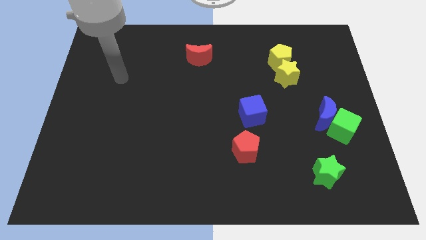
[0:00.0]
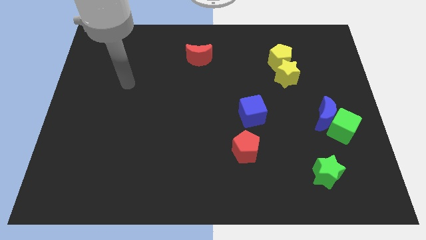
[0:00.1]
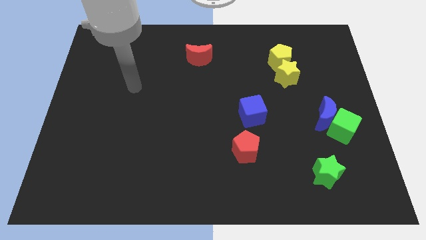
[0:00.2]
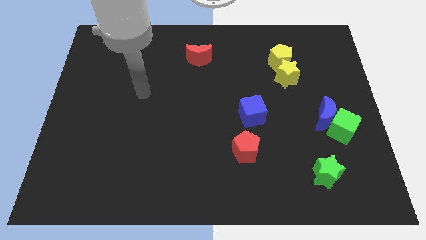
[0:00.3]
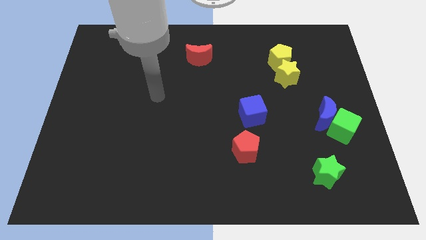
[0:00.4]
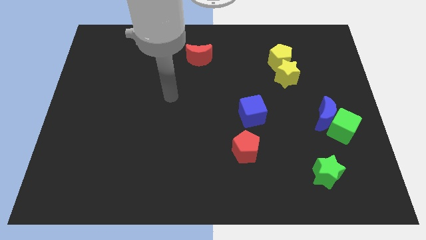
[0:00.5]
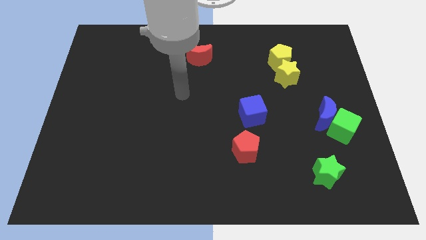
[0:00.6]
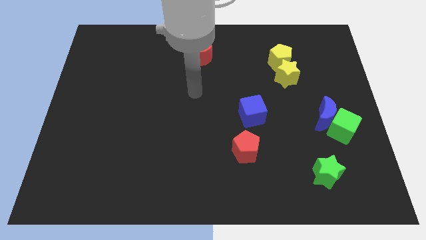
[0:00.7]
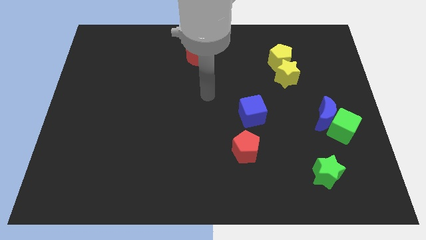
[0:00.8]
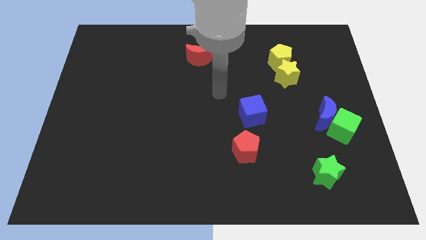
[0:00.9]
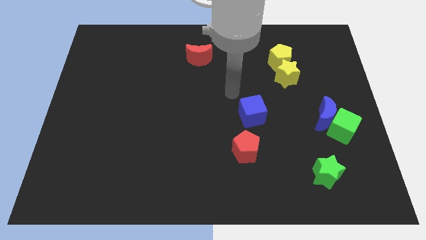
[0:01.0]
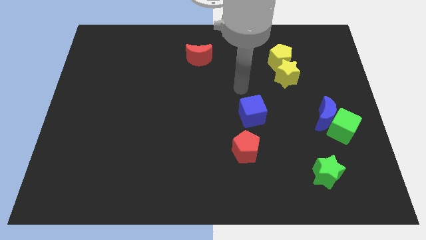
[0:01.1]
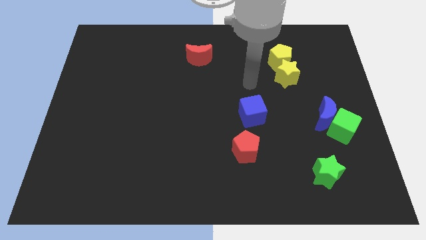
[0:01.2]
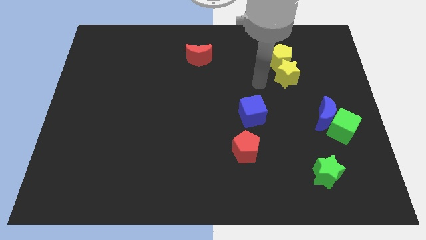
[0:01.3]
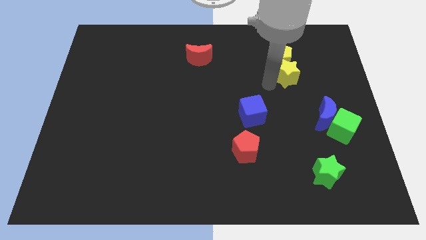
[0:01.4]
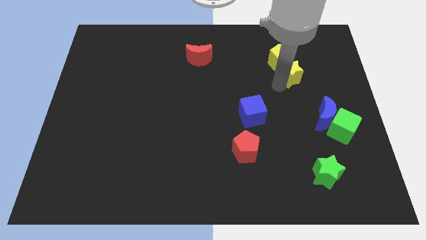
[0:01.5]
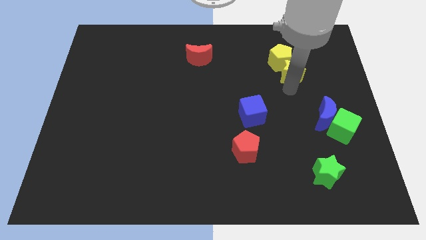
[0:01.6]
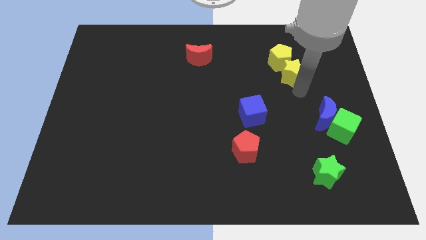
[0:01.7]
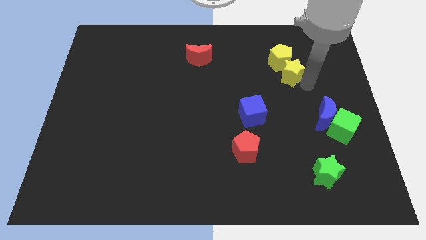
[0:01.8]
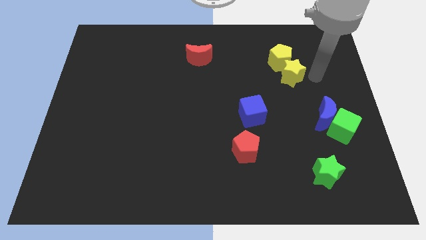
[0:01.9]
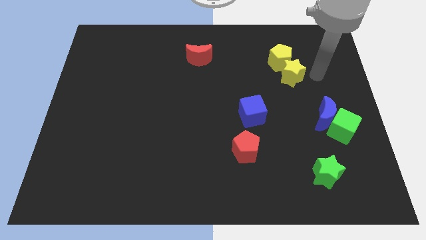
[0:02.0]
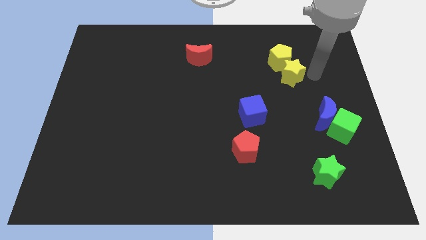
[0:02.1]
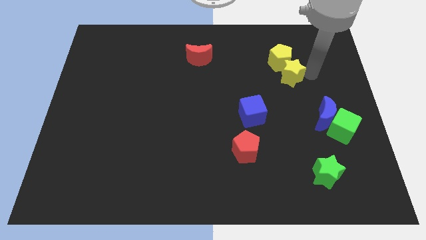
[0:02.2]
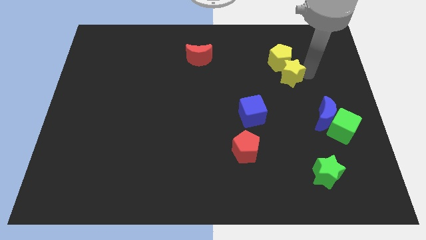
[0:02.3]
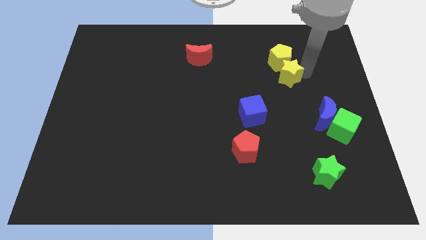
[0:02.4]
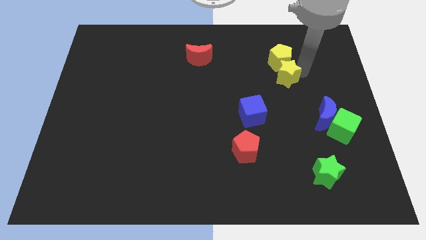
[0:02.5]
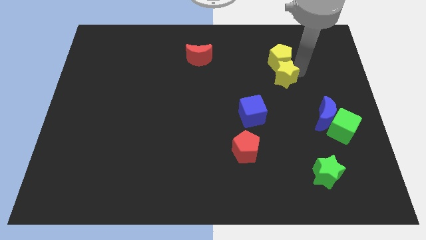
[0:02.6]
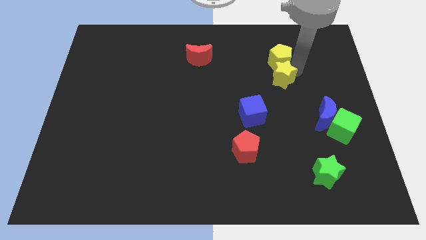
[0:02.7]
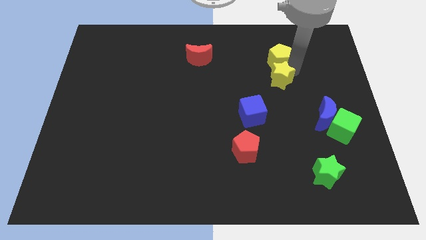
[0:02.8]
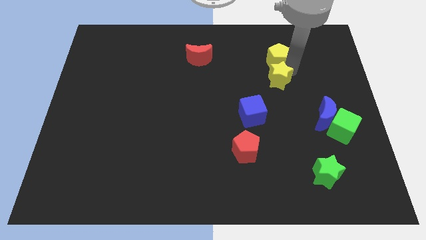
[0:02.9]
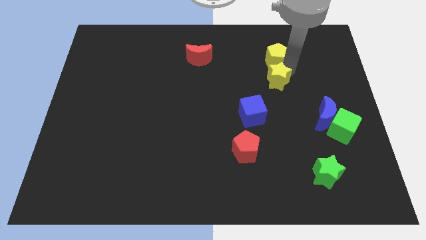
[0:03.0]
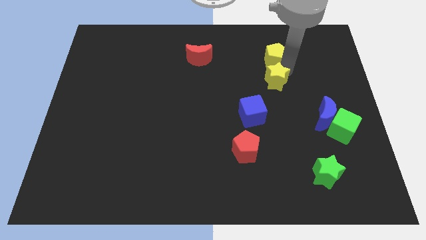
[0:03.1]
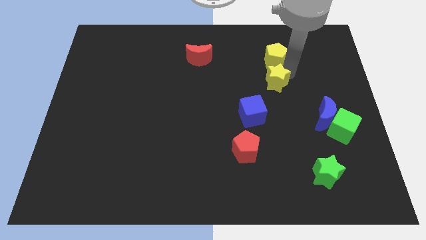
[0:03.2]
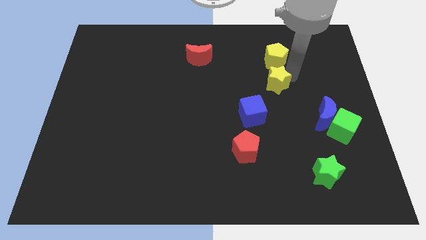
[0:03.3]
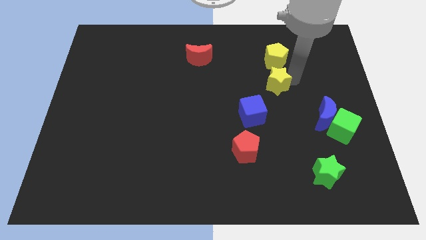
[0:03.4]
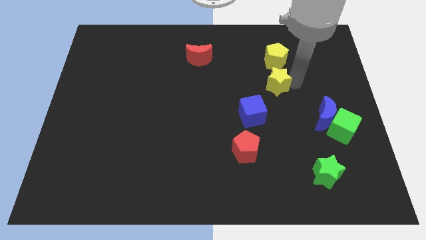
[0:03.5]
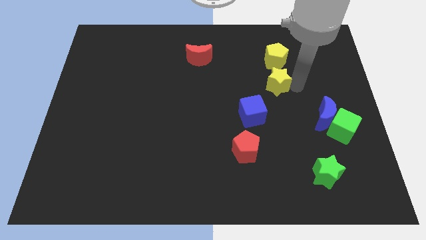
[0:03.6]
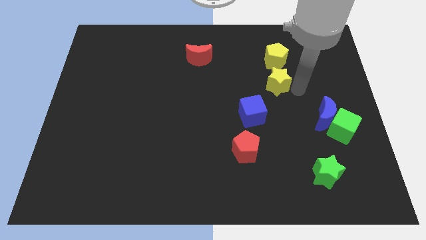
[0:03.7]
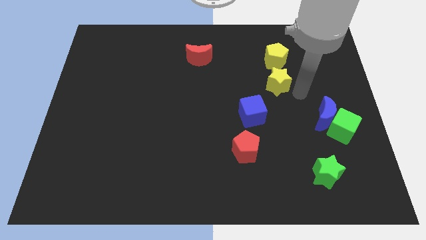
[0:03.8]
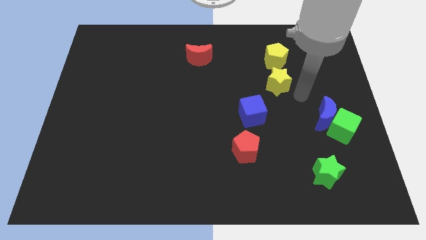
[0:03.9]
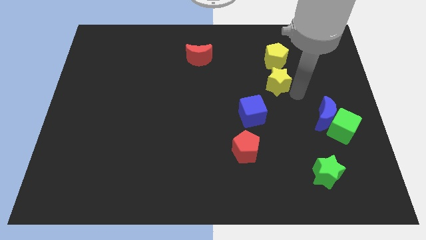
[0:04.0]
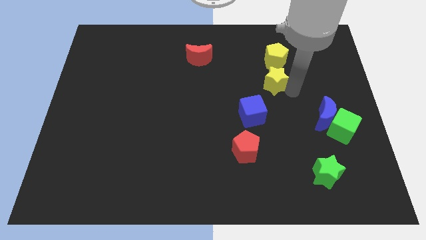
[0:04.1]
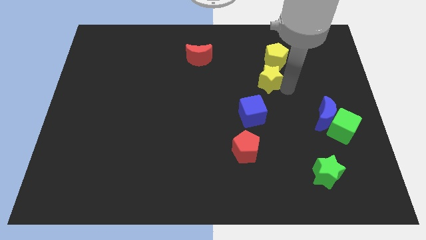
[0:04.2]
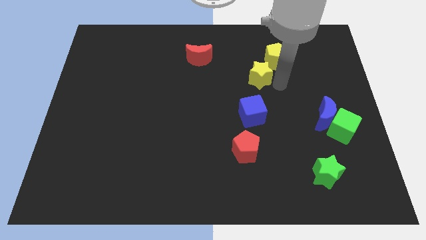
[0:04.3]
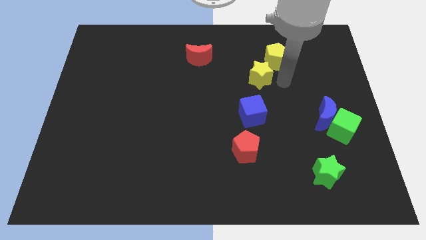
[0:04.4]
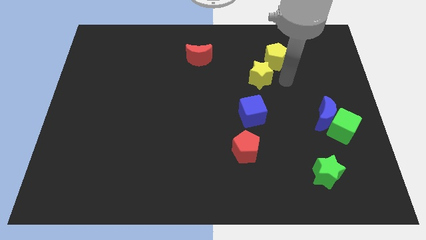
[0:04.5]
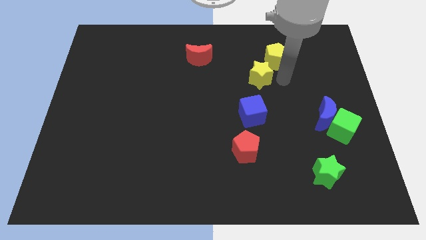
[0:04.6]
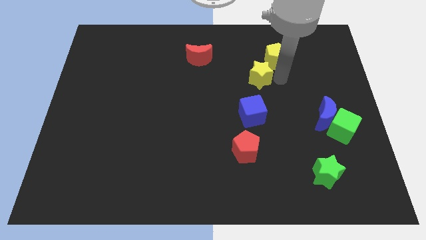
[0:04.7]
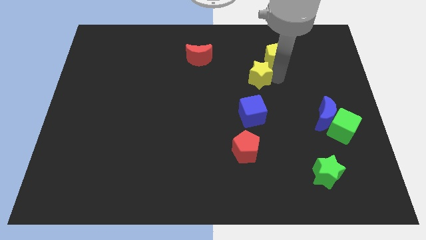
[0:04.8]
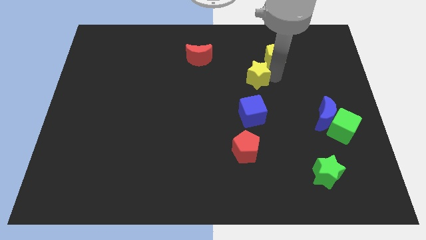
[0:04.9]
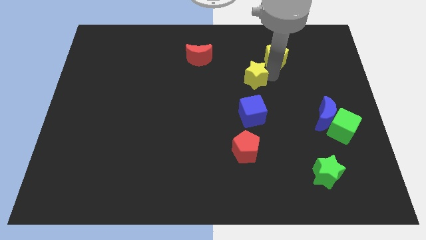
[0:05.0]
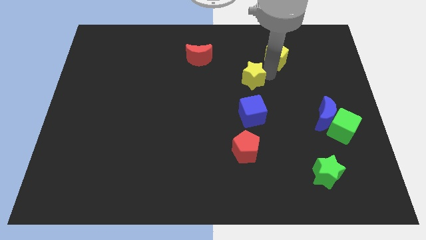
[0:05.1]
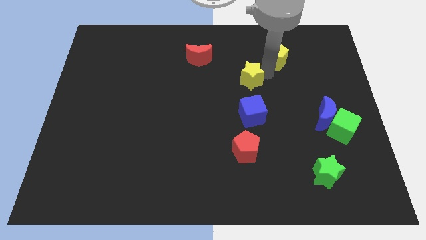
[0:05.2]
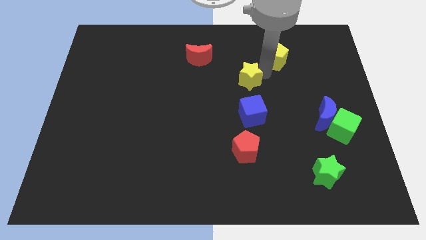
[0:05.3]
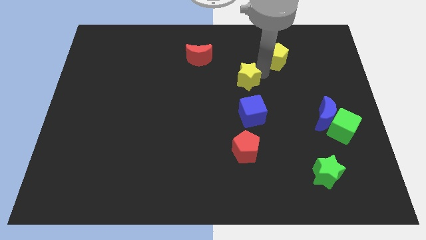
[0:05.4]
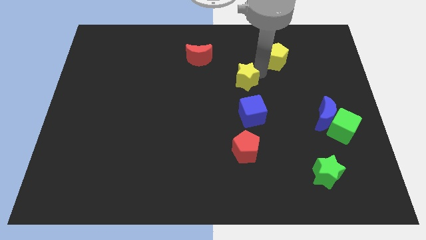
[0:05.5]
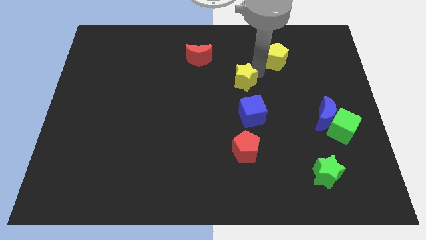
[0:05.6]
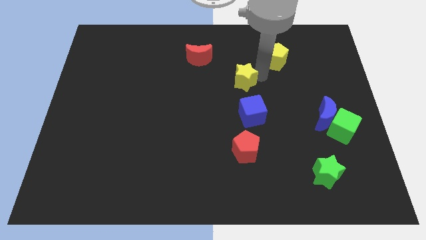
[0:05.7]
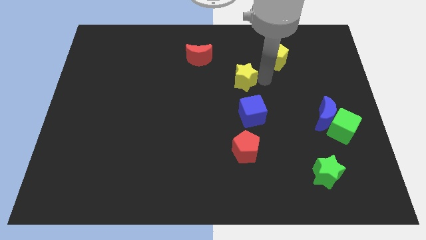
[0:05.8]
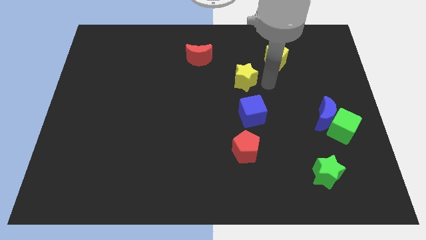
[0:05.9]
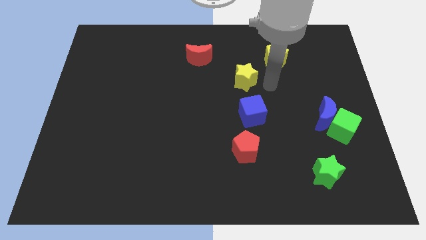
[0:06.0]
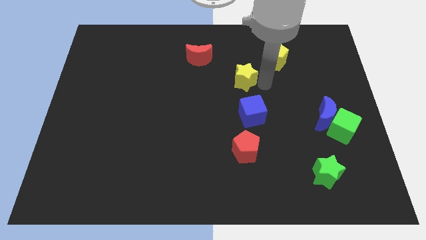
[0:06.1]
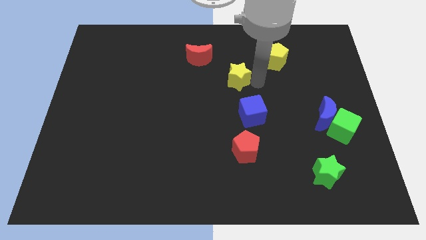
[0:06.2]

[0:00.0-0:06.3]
put the yellow star to the bottom right of the red moon

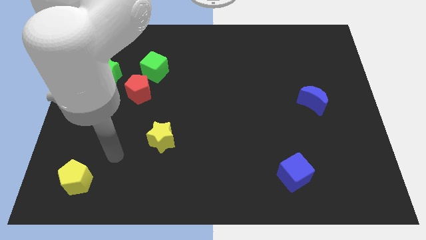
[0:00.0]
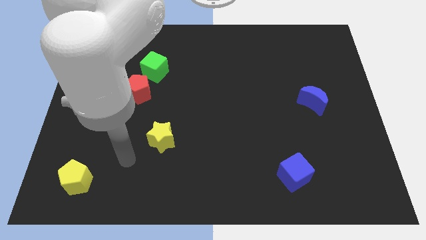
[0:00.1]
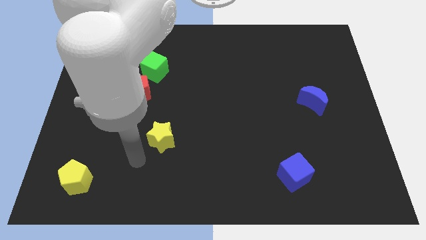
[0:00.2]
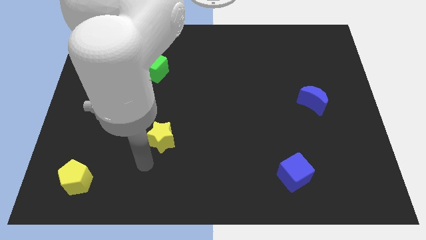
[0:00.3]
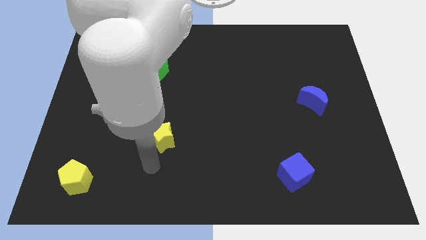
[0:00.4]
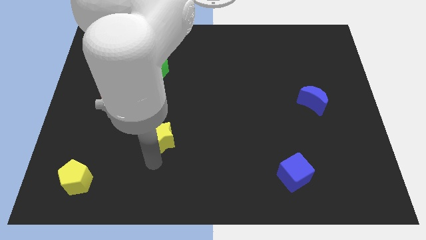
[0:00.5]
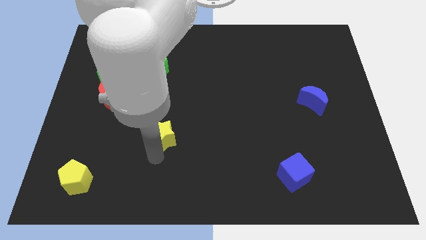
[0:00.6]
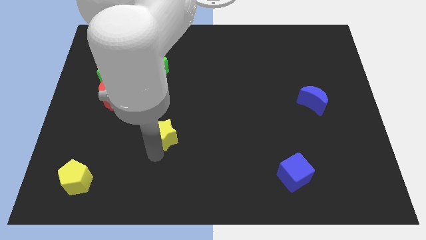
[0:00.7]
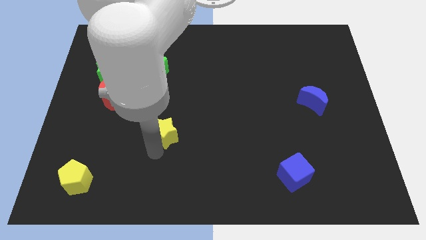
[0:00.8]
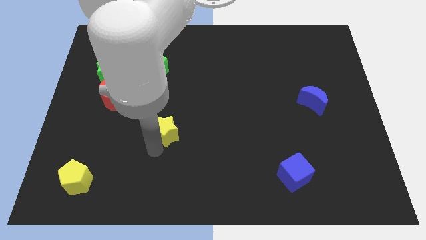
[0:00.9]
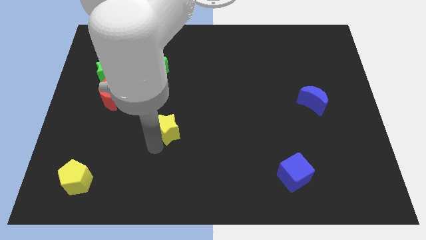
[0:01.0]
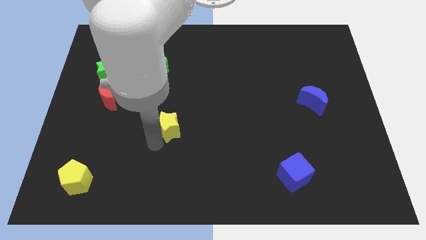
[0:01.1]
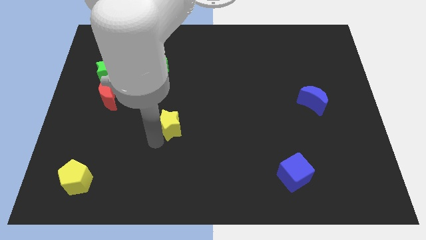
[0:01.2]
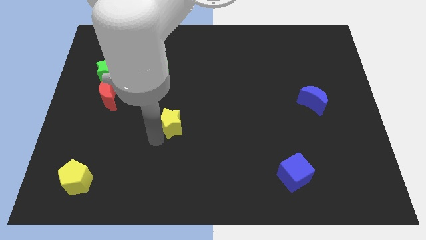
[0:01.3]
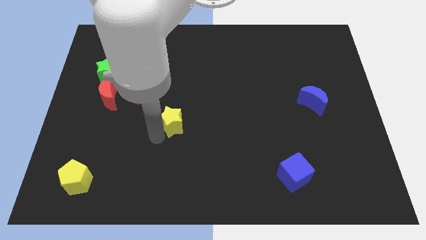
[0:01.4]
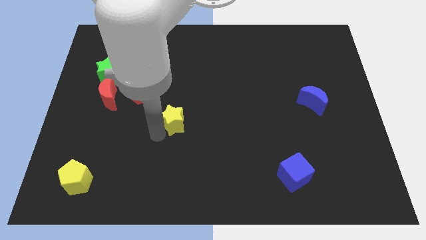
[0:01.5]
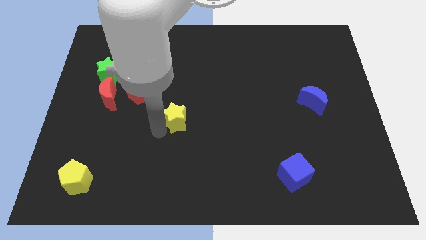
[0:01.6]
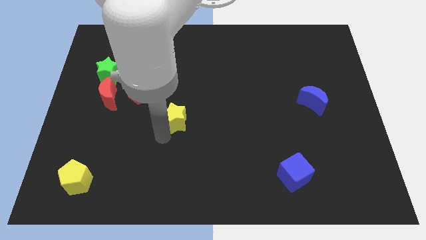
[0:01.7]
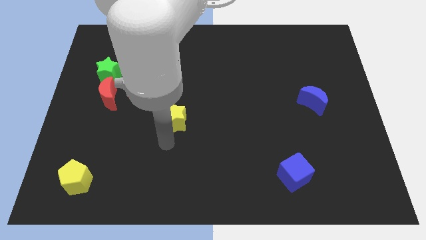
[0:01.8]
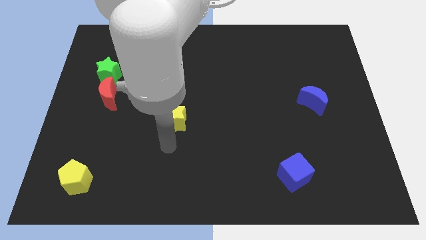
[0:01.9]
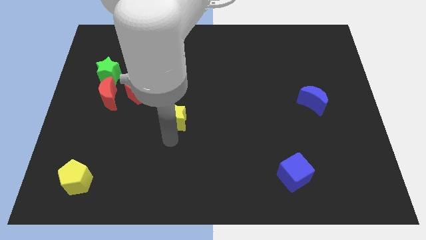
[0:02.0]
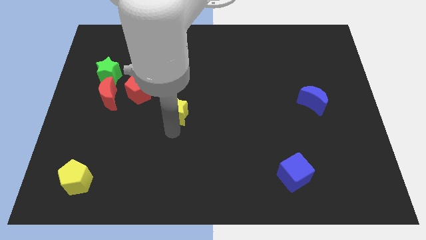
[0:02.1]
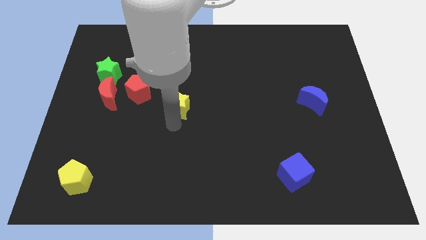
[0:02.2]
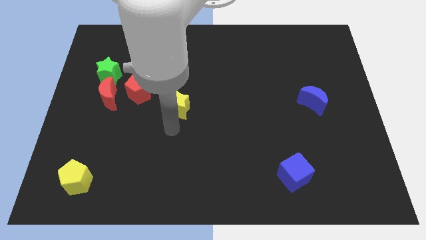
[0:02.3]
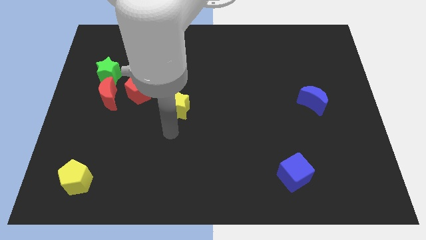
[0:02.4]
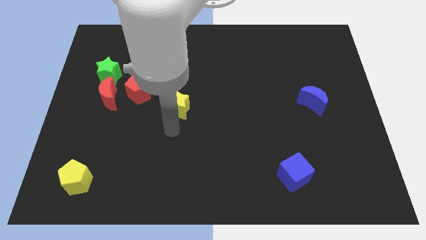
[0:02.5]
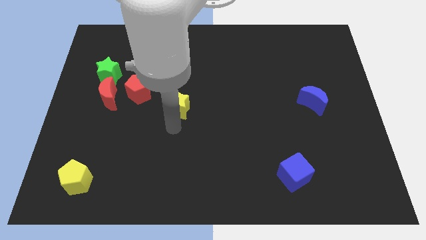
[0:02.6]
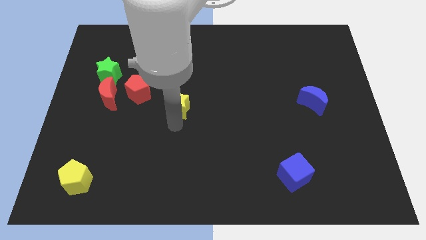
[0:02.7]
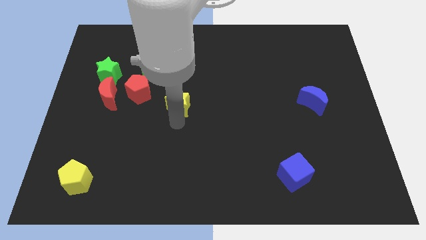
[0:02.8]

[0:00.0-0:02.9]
put the yellow star just right of the red pentagon
